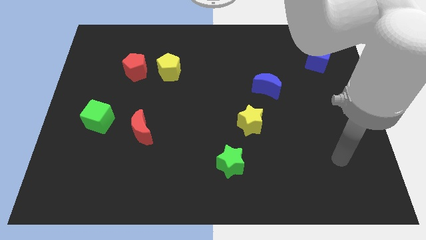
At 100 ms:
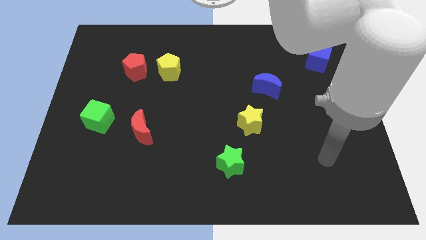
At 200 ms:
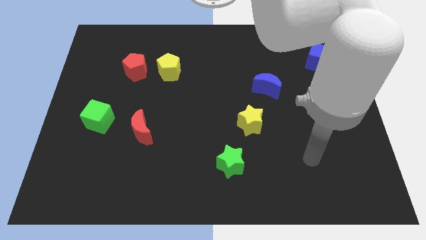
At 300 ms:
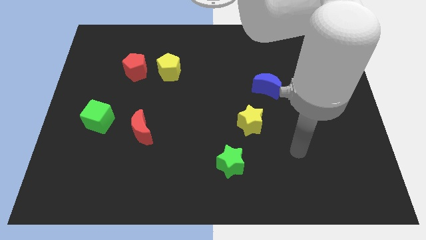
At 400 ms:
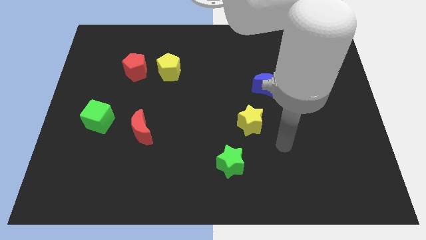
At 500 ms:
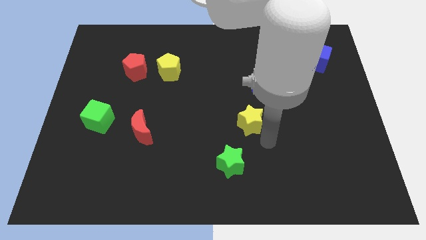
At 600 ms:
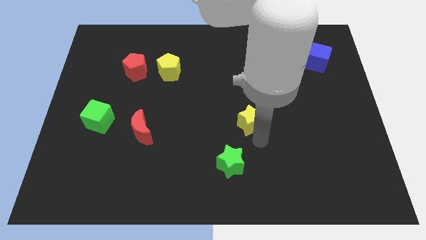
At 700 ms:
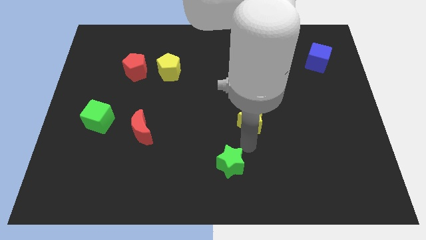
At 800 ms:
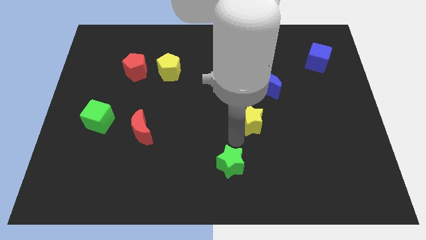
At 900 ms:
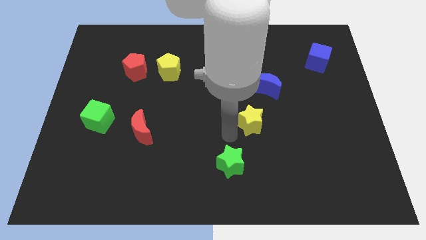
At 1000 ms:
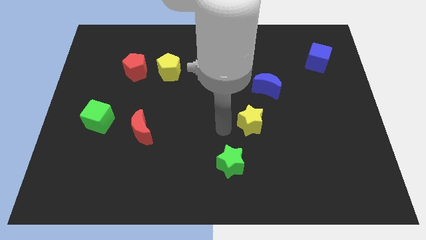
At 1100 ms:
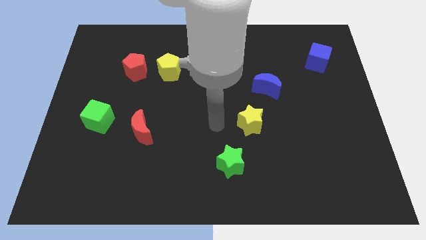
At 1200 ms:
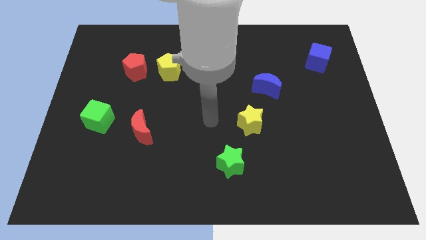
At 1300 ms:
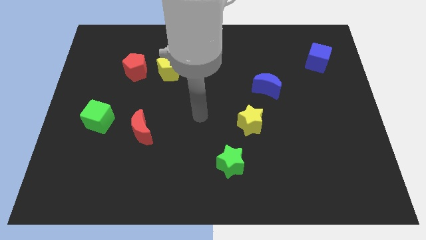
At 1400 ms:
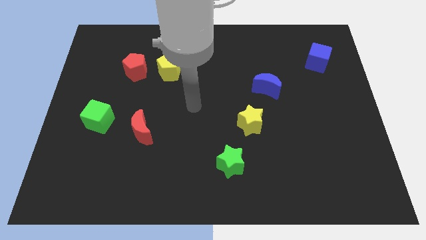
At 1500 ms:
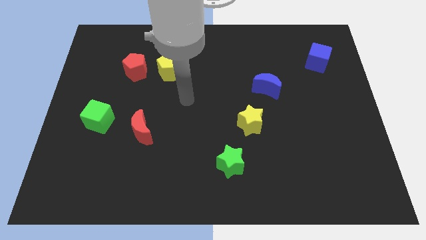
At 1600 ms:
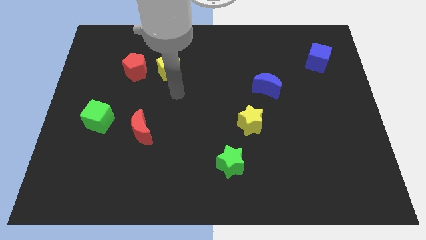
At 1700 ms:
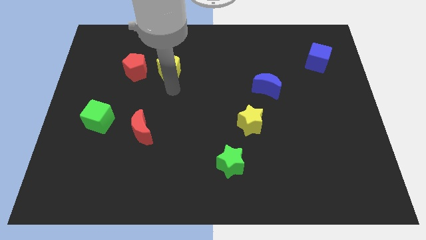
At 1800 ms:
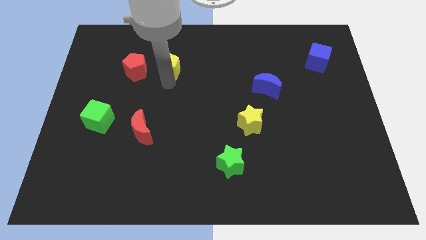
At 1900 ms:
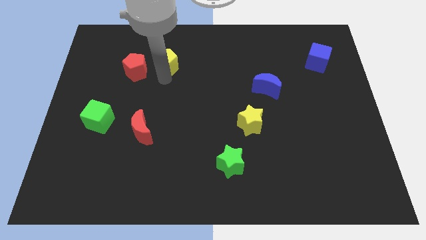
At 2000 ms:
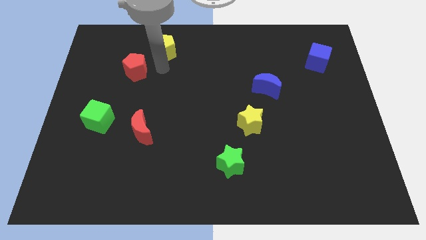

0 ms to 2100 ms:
pull the red pentagon apart from the yellow pentagon

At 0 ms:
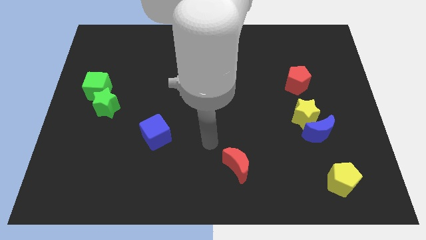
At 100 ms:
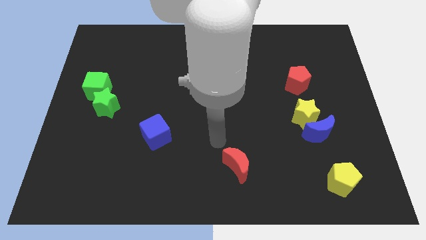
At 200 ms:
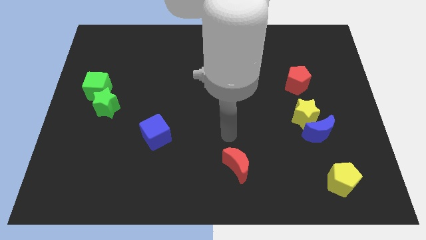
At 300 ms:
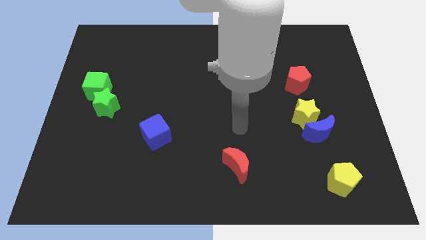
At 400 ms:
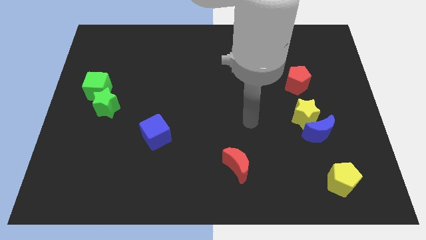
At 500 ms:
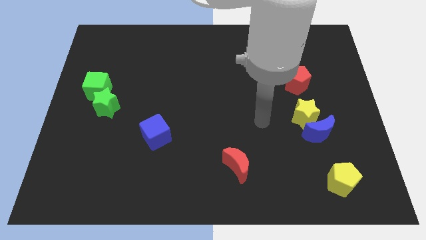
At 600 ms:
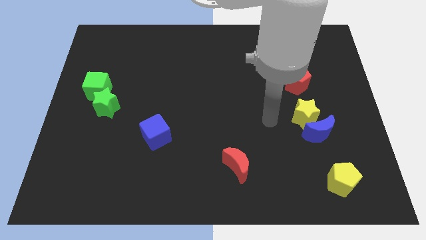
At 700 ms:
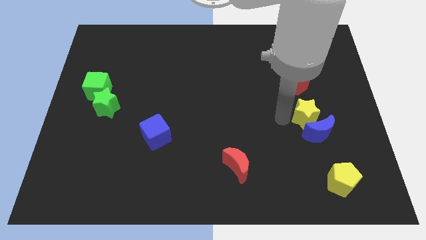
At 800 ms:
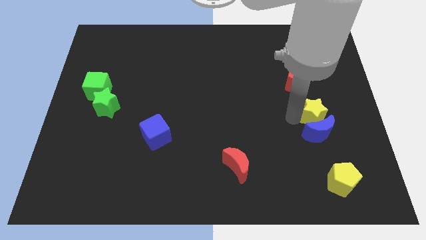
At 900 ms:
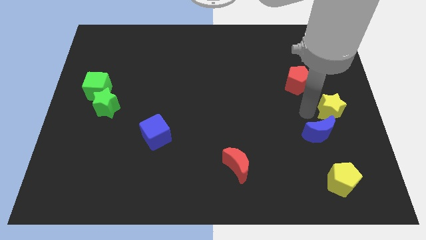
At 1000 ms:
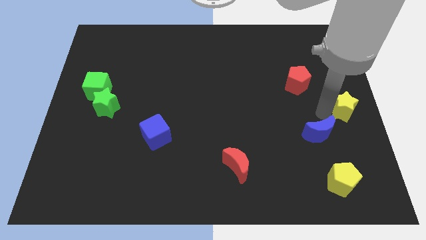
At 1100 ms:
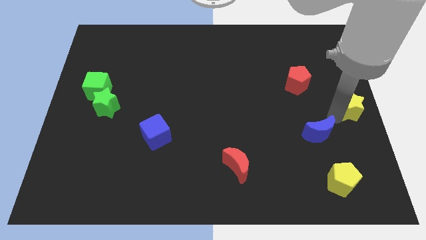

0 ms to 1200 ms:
move the blue moon away from the yellow star

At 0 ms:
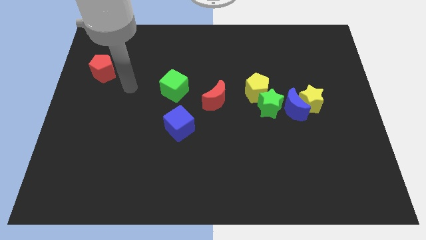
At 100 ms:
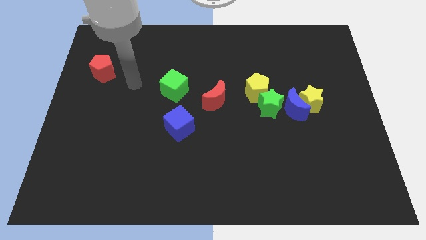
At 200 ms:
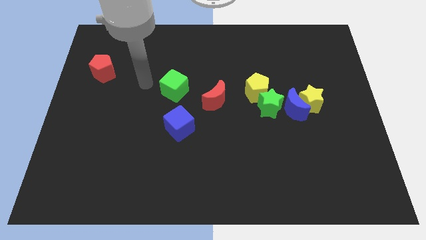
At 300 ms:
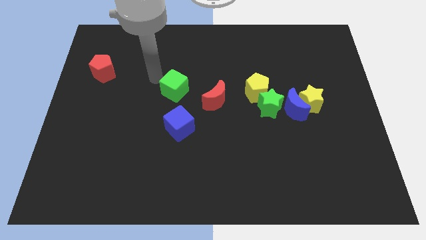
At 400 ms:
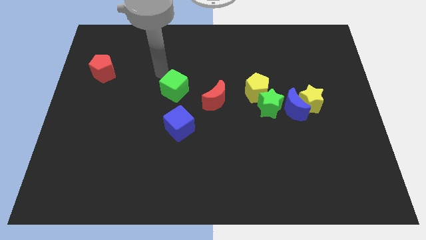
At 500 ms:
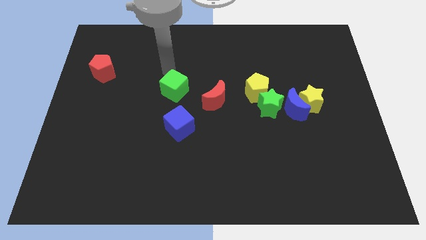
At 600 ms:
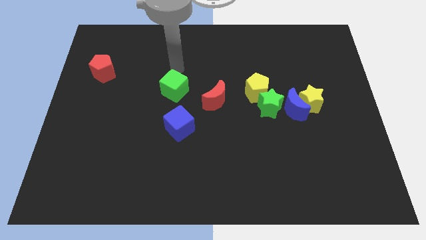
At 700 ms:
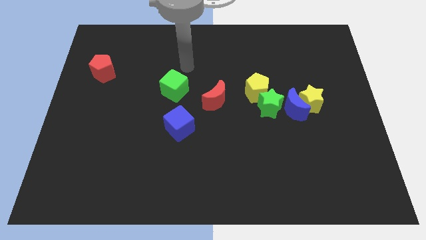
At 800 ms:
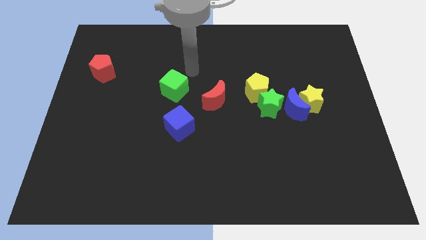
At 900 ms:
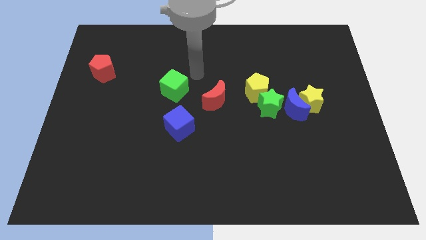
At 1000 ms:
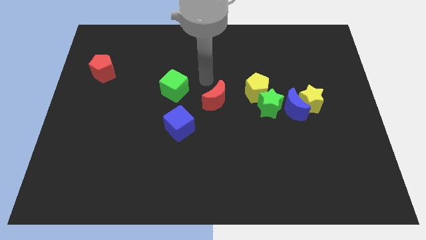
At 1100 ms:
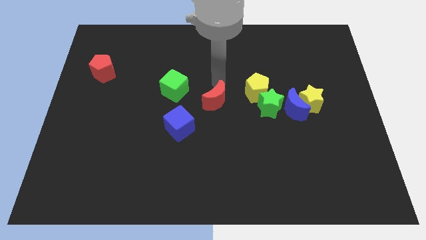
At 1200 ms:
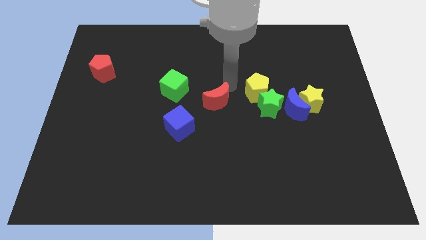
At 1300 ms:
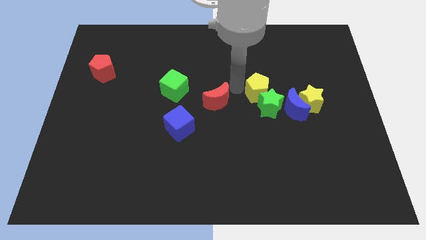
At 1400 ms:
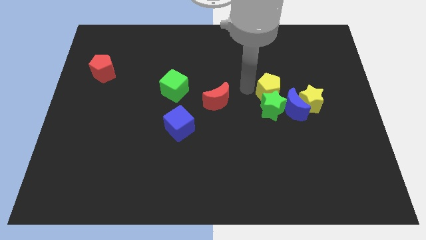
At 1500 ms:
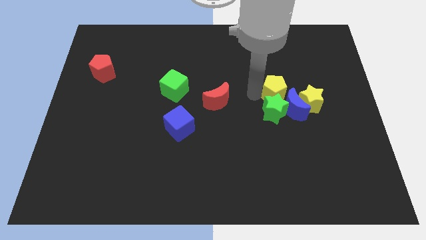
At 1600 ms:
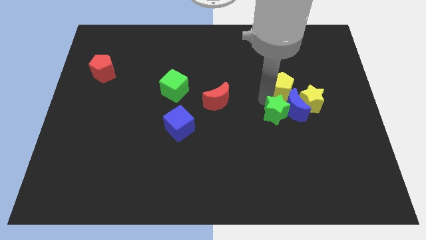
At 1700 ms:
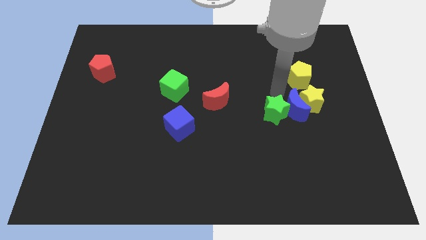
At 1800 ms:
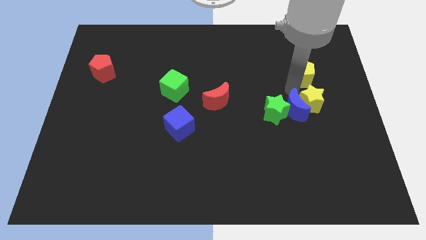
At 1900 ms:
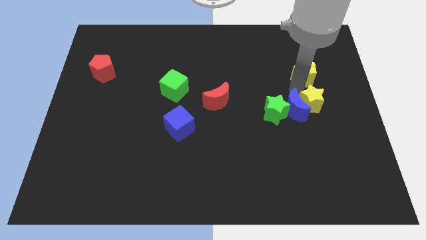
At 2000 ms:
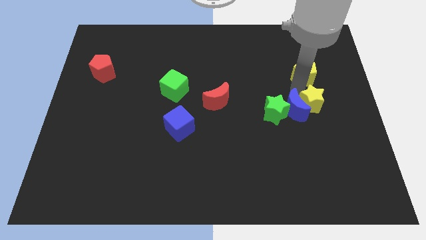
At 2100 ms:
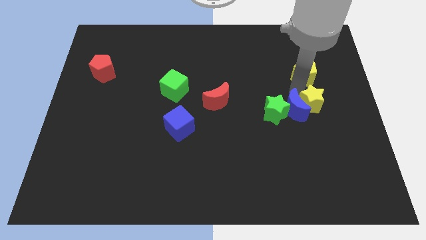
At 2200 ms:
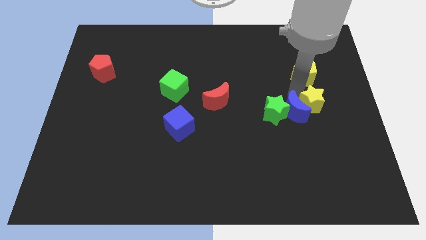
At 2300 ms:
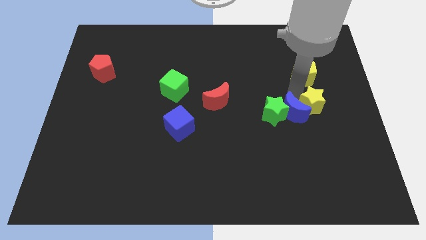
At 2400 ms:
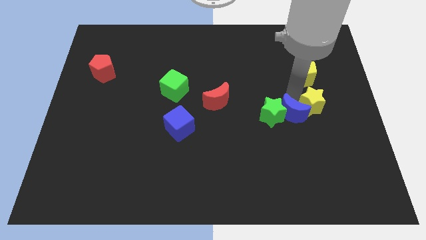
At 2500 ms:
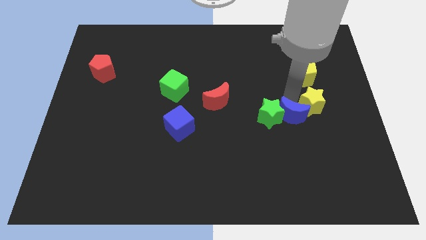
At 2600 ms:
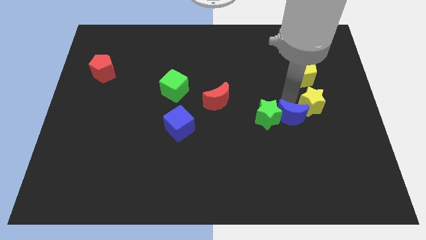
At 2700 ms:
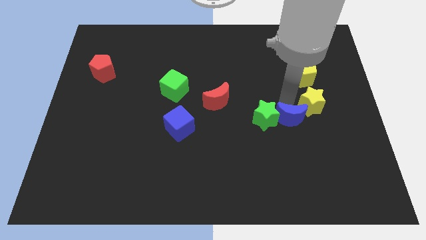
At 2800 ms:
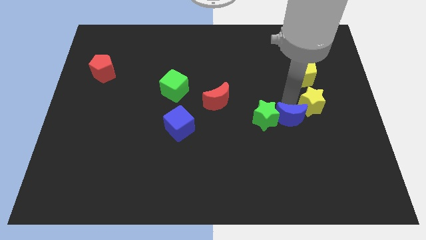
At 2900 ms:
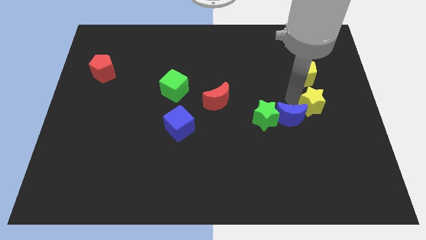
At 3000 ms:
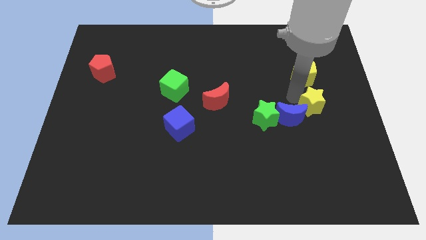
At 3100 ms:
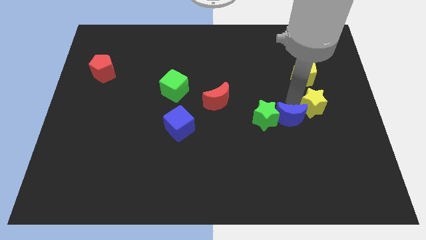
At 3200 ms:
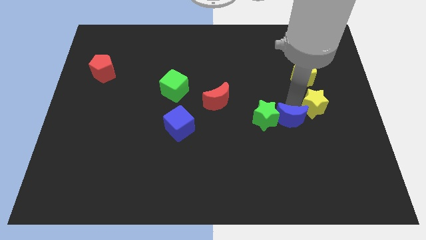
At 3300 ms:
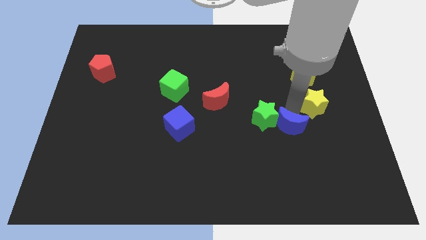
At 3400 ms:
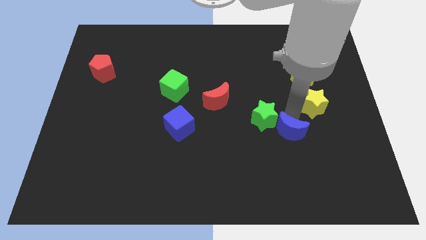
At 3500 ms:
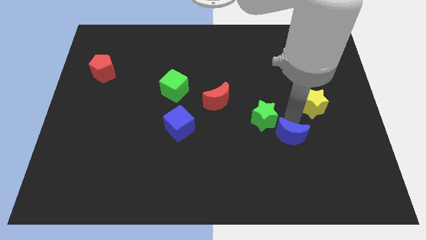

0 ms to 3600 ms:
move the blue moon away from the yellow star, green star, and yellow pentagon

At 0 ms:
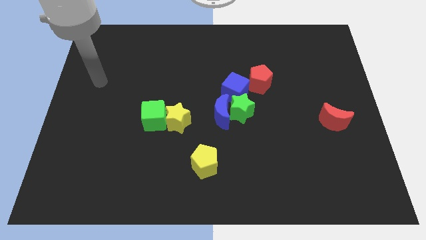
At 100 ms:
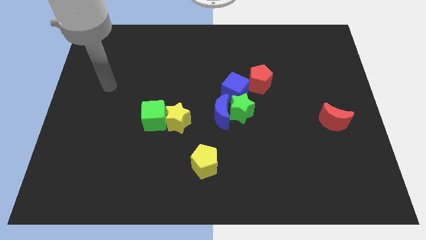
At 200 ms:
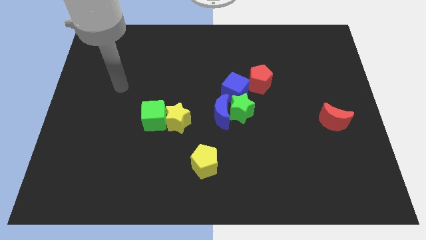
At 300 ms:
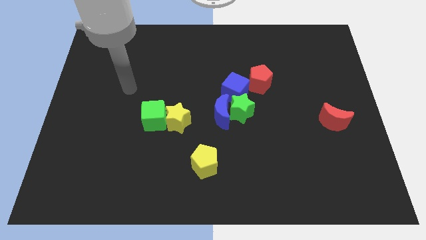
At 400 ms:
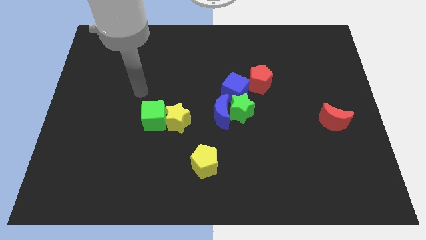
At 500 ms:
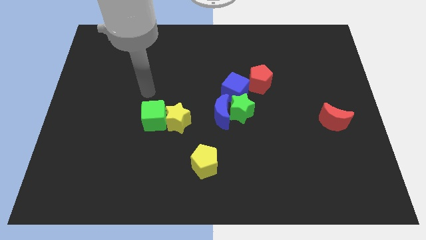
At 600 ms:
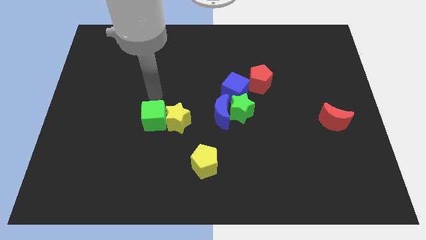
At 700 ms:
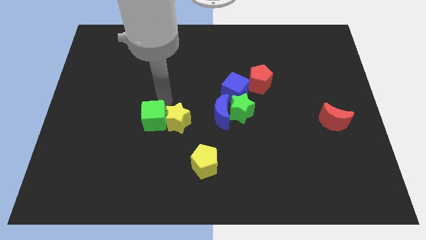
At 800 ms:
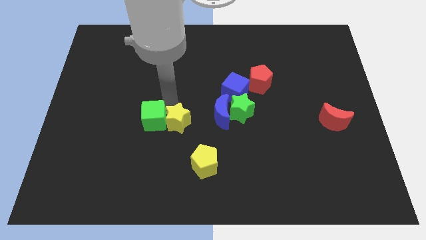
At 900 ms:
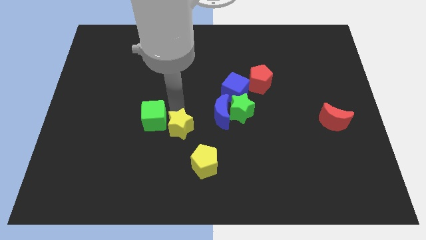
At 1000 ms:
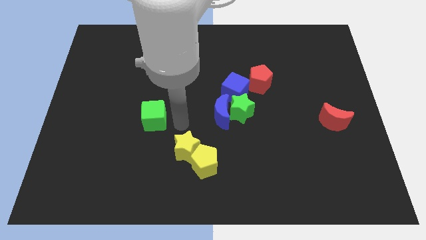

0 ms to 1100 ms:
separate the green cube from the yellow star

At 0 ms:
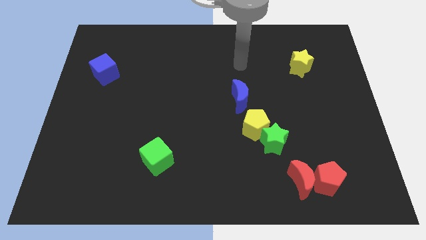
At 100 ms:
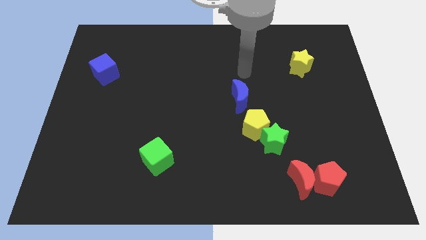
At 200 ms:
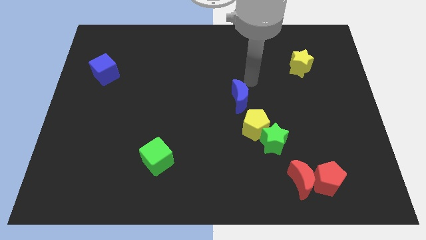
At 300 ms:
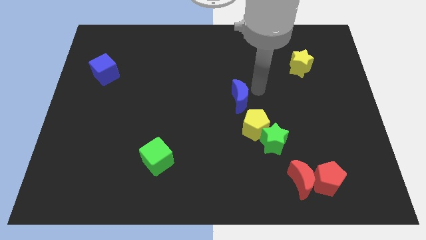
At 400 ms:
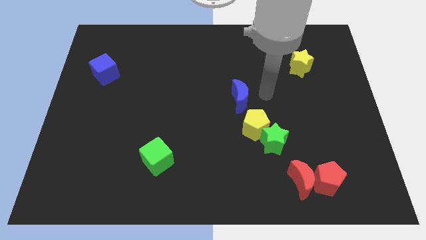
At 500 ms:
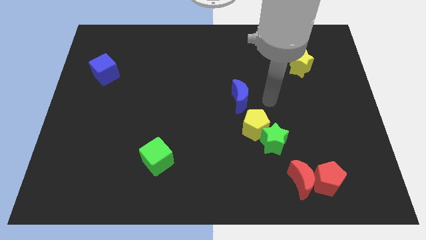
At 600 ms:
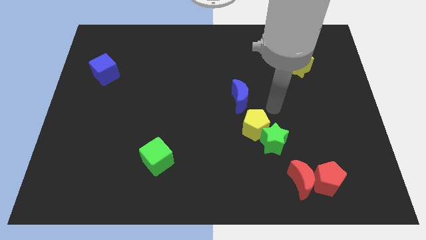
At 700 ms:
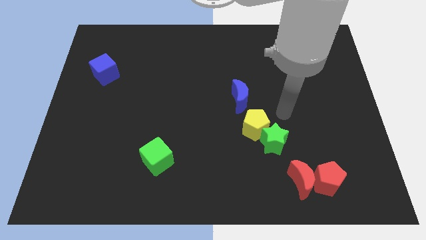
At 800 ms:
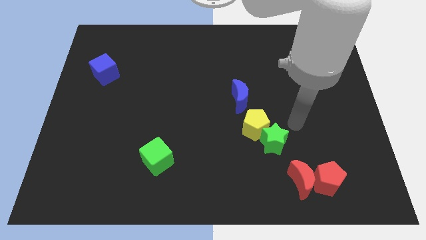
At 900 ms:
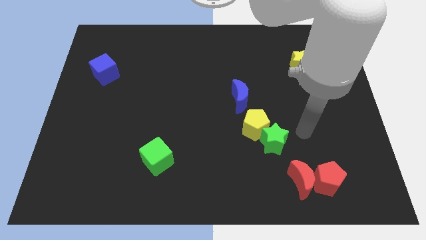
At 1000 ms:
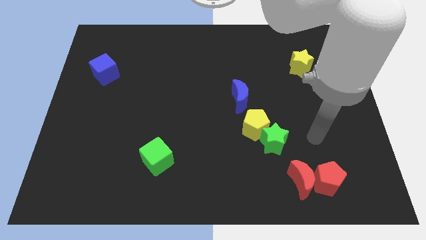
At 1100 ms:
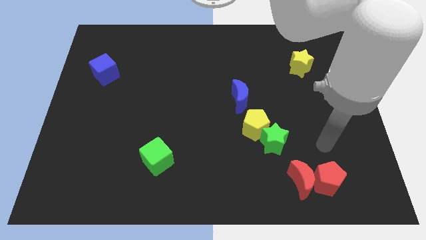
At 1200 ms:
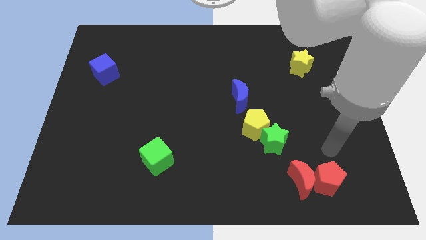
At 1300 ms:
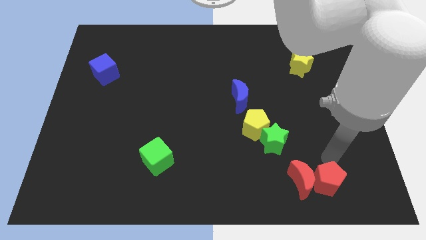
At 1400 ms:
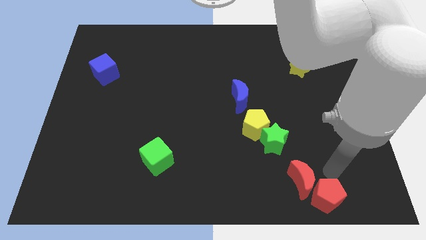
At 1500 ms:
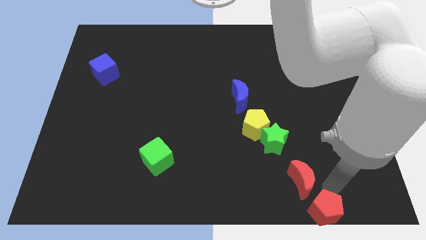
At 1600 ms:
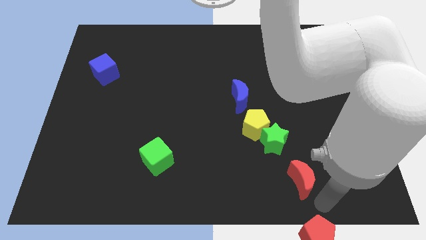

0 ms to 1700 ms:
pull the red moon apart from the red pentagon
